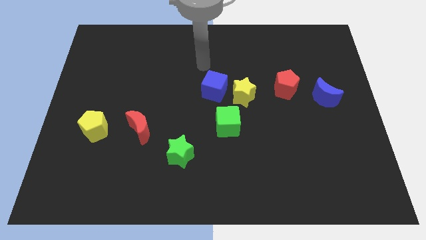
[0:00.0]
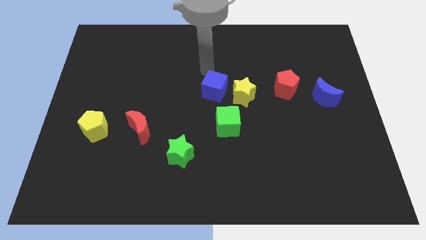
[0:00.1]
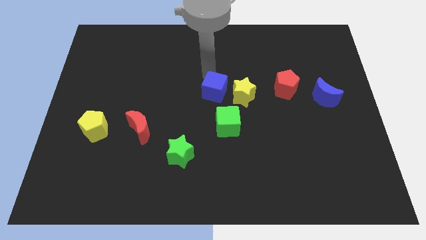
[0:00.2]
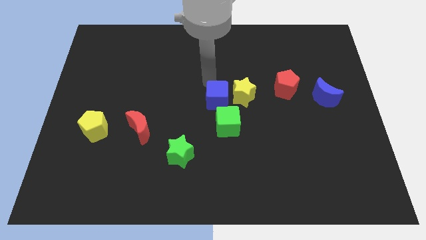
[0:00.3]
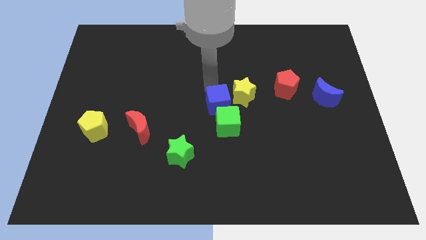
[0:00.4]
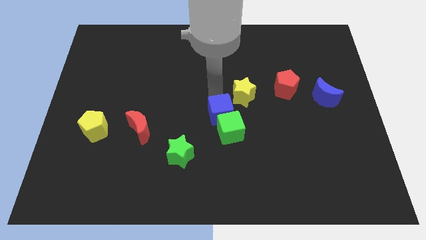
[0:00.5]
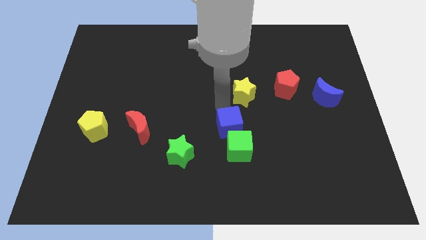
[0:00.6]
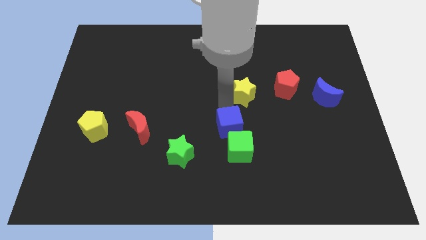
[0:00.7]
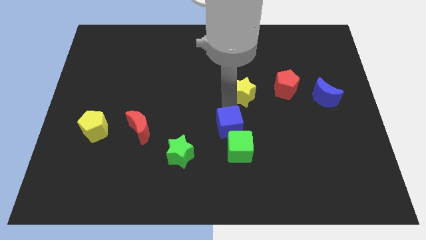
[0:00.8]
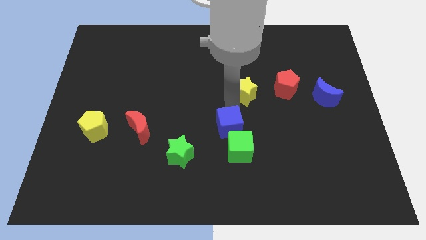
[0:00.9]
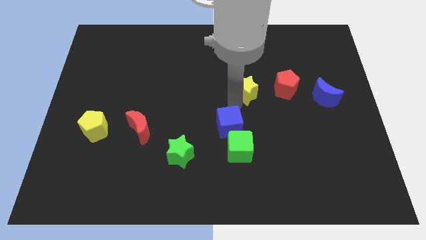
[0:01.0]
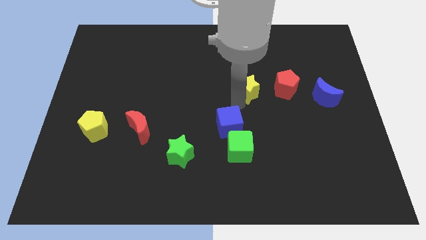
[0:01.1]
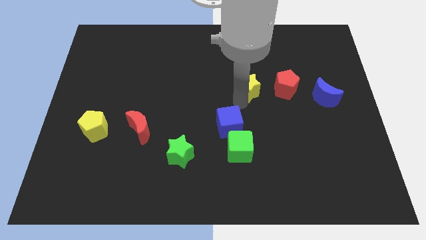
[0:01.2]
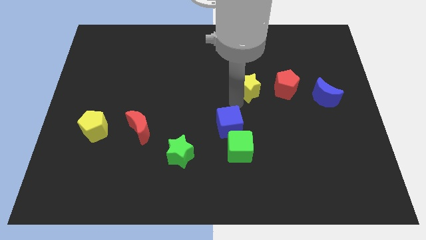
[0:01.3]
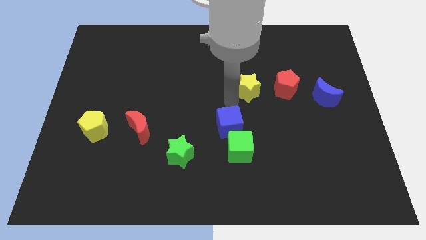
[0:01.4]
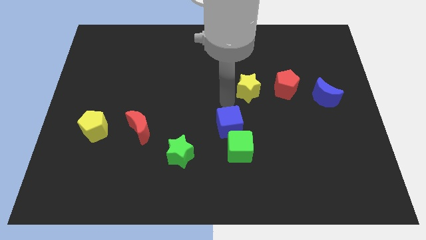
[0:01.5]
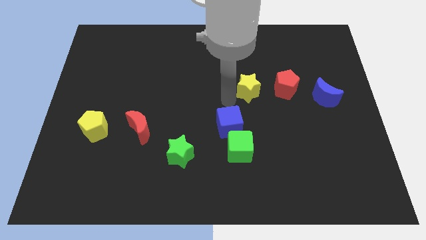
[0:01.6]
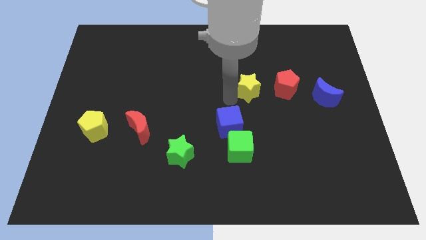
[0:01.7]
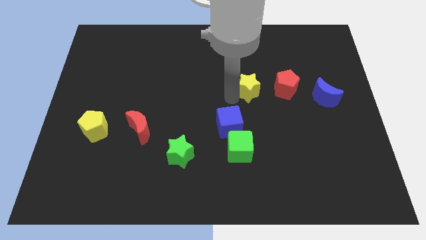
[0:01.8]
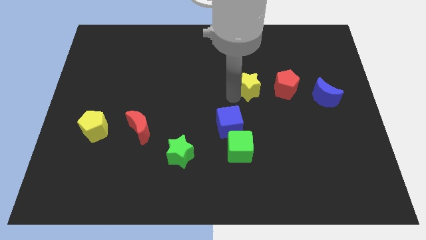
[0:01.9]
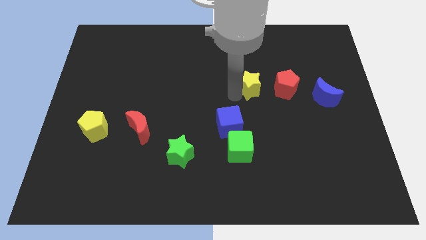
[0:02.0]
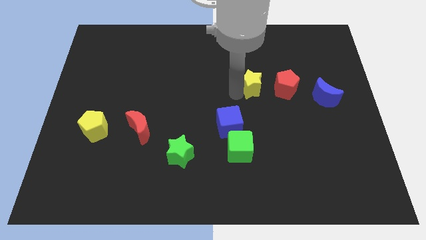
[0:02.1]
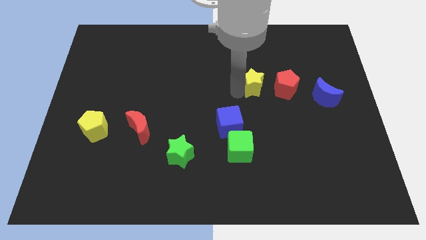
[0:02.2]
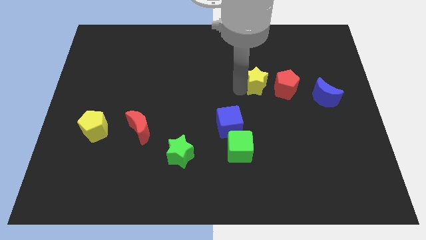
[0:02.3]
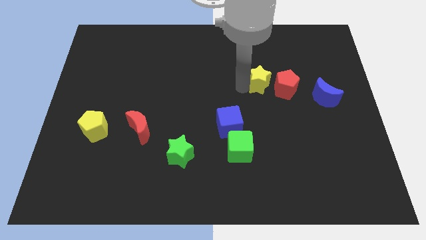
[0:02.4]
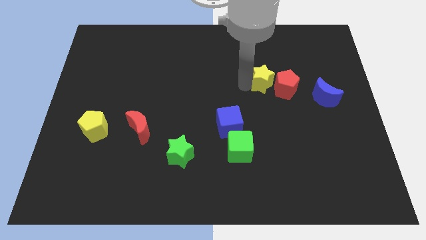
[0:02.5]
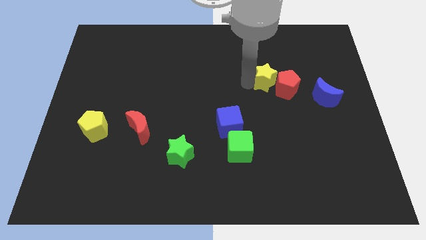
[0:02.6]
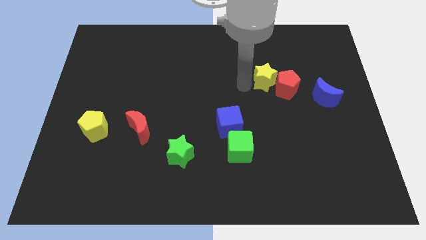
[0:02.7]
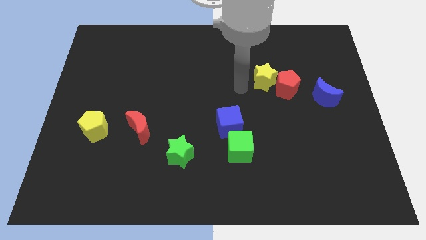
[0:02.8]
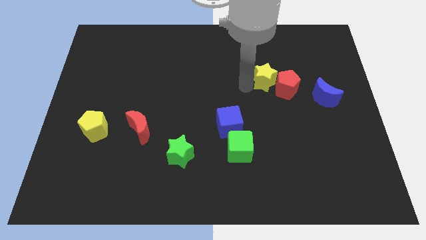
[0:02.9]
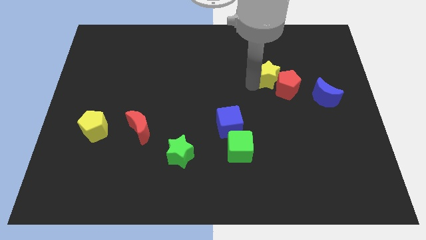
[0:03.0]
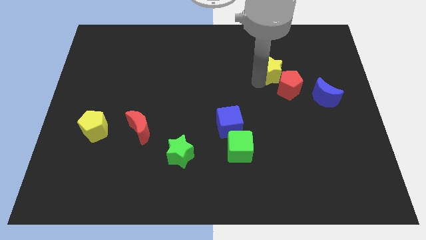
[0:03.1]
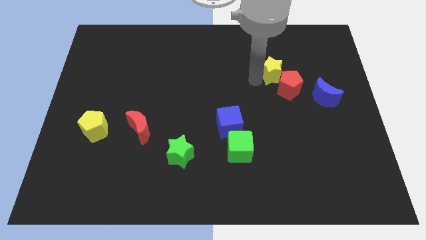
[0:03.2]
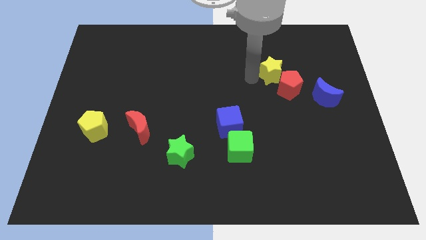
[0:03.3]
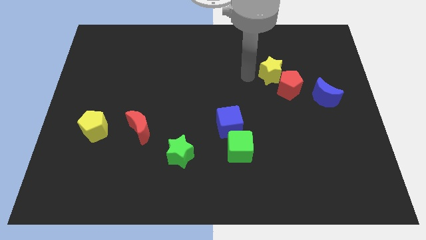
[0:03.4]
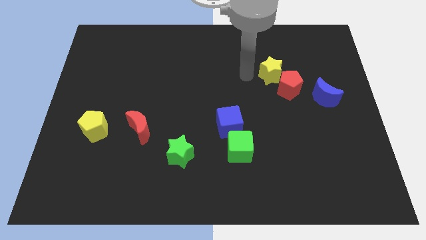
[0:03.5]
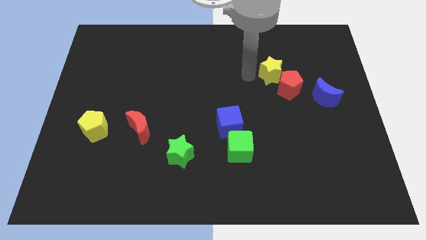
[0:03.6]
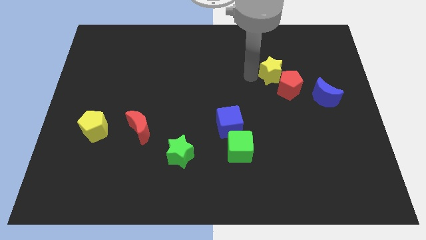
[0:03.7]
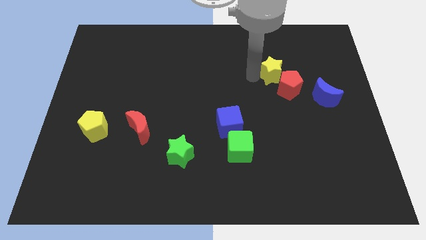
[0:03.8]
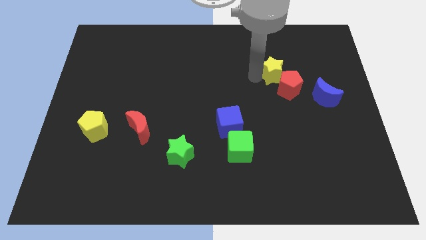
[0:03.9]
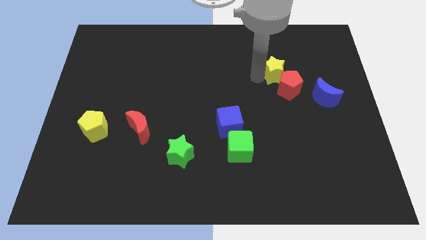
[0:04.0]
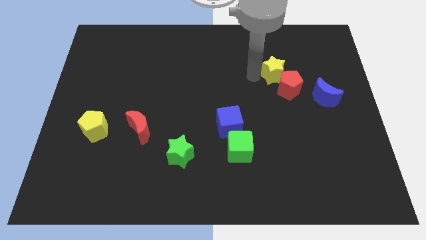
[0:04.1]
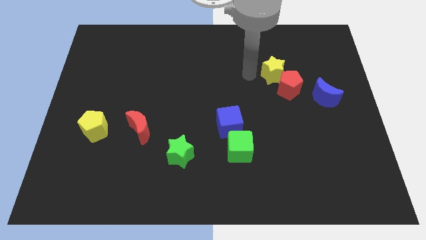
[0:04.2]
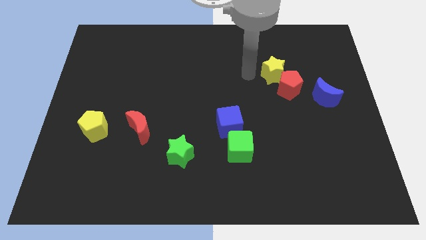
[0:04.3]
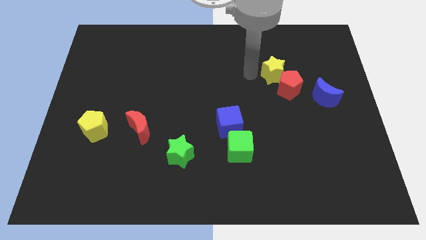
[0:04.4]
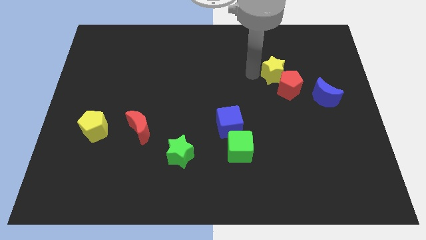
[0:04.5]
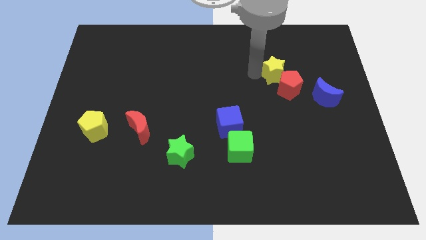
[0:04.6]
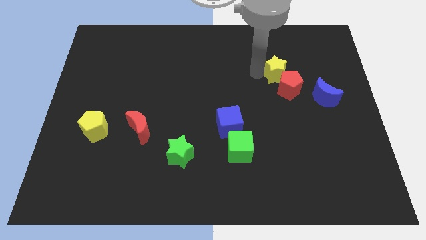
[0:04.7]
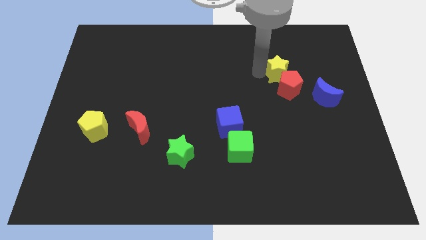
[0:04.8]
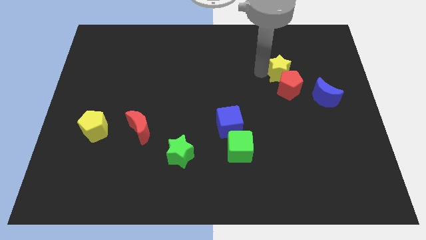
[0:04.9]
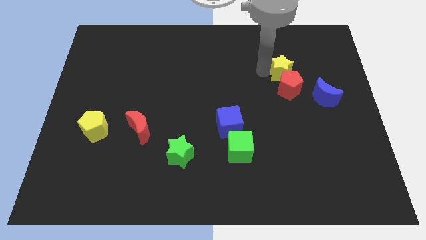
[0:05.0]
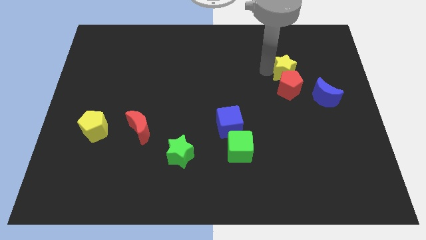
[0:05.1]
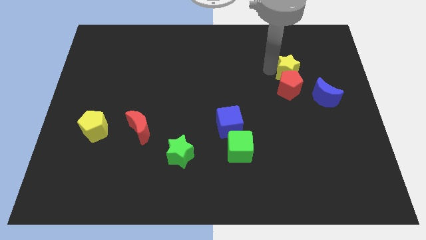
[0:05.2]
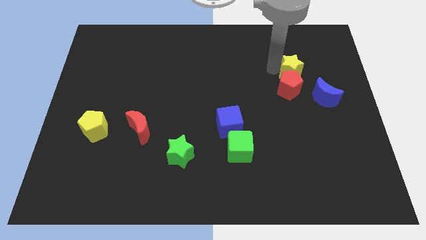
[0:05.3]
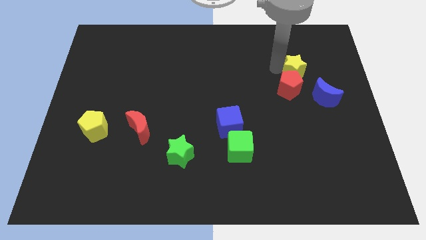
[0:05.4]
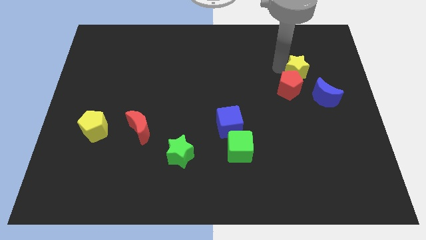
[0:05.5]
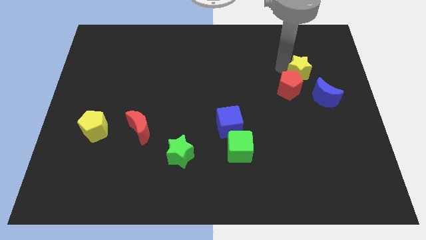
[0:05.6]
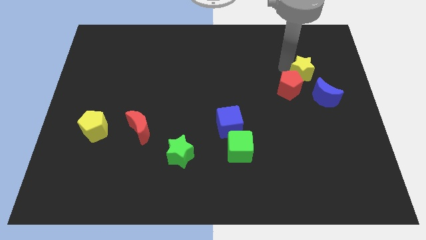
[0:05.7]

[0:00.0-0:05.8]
move the yellow star to the right side of the red pentagon
